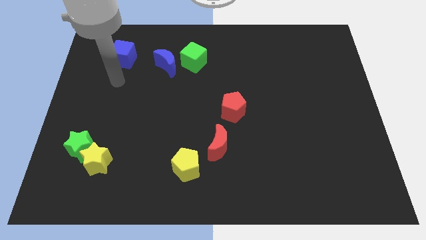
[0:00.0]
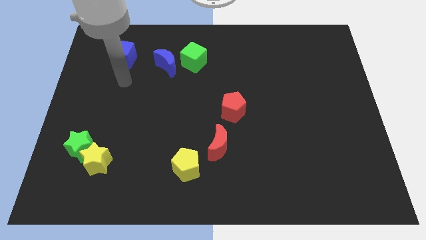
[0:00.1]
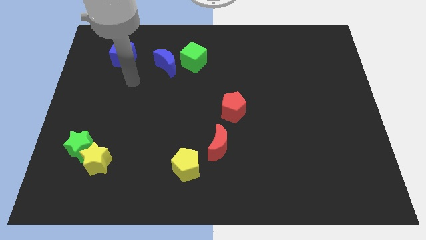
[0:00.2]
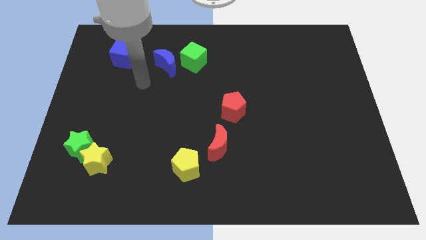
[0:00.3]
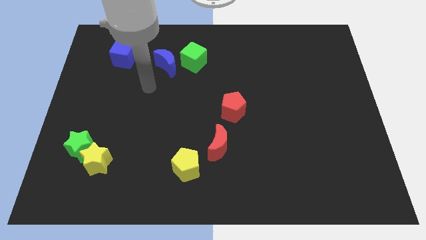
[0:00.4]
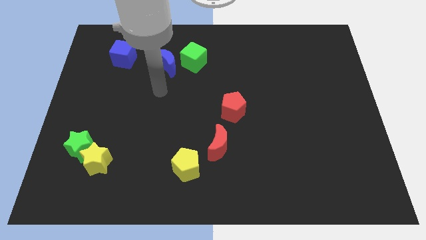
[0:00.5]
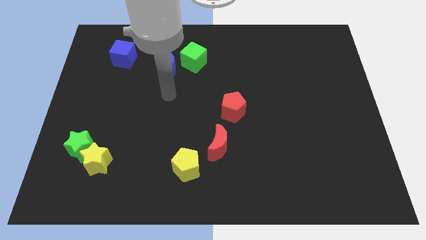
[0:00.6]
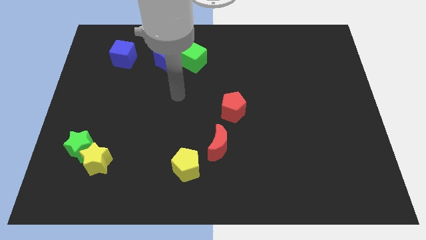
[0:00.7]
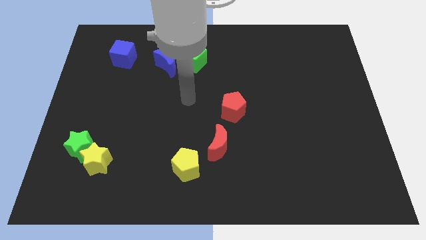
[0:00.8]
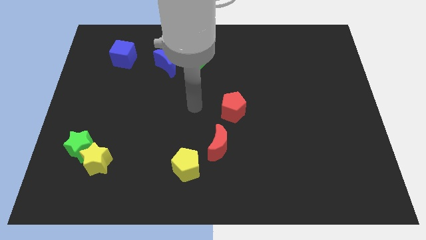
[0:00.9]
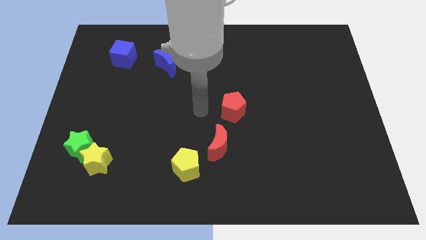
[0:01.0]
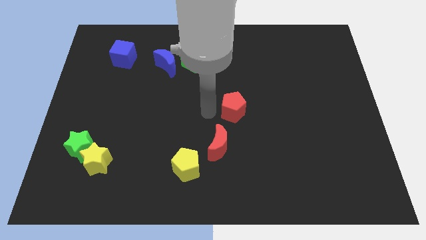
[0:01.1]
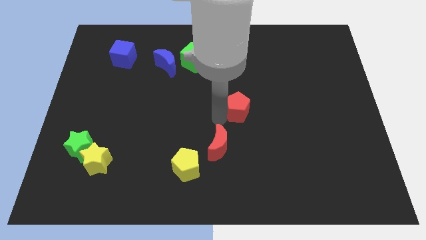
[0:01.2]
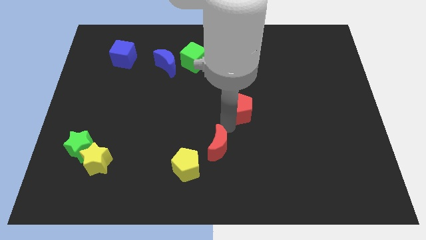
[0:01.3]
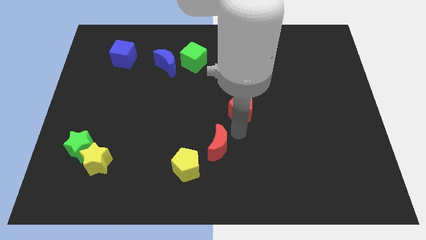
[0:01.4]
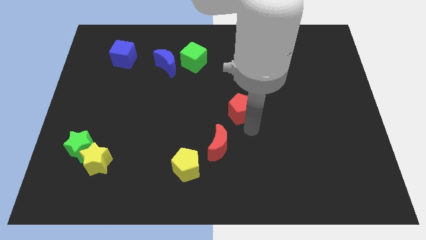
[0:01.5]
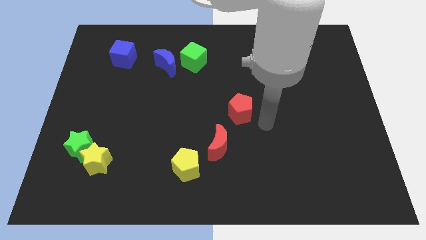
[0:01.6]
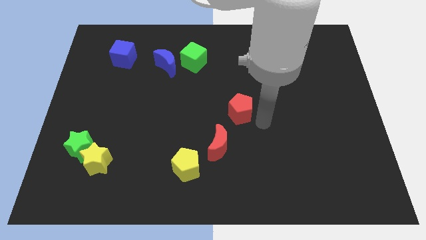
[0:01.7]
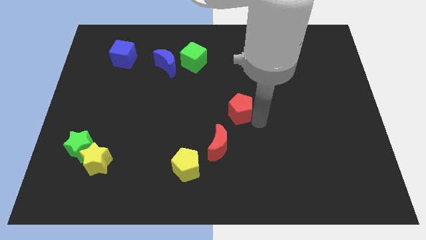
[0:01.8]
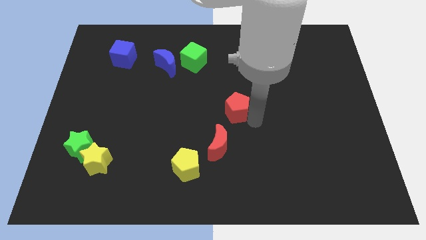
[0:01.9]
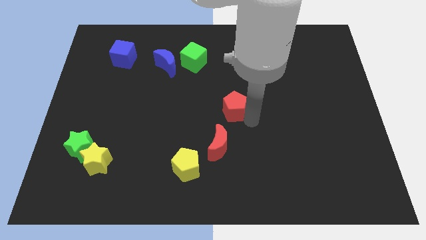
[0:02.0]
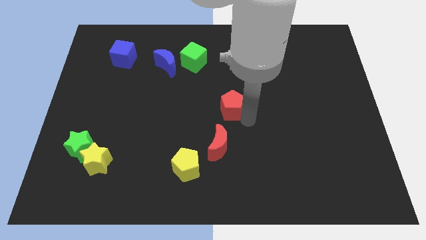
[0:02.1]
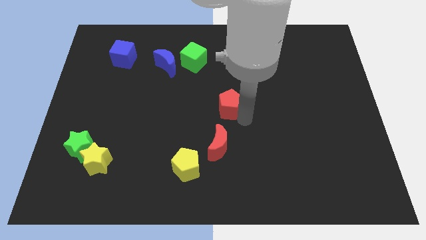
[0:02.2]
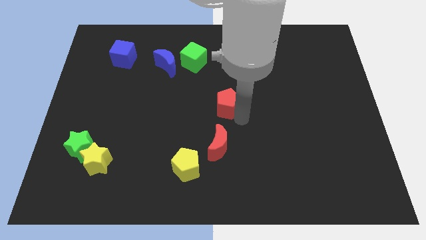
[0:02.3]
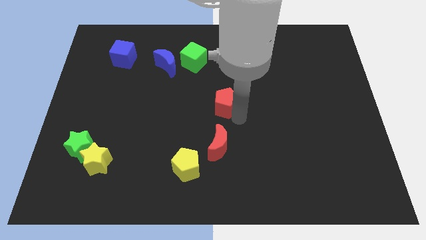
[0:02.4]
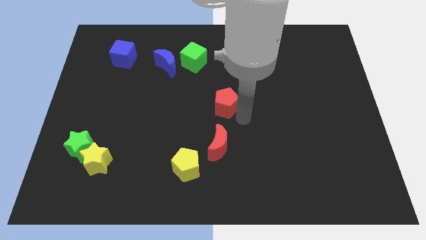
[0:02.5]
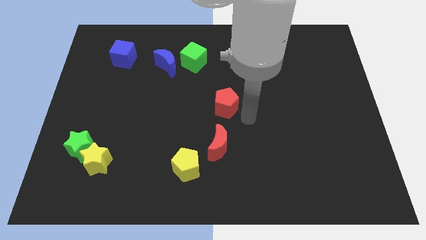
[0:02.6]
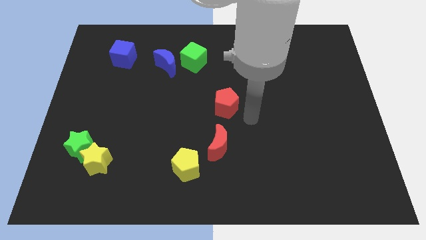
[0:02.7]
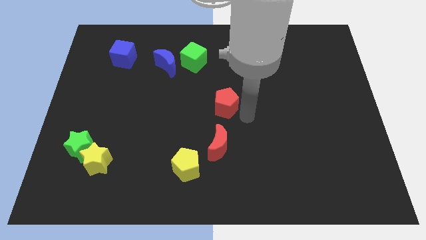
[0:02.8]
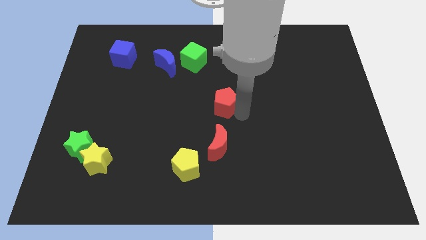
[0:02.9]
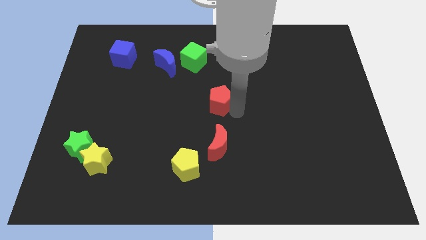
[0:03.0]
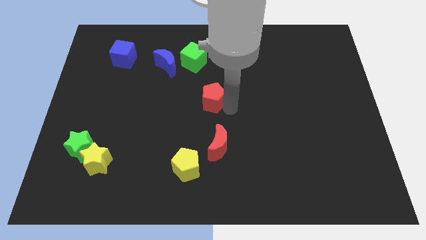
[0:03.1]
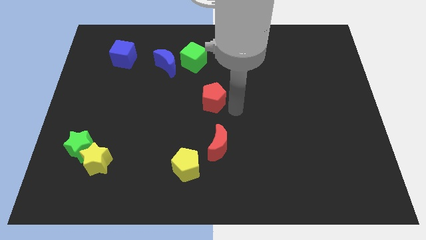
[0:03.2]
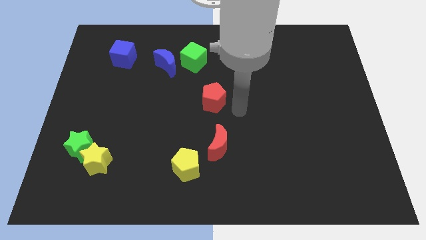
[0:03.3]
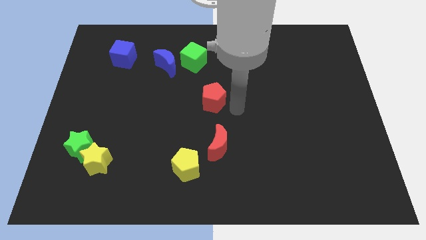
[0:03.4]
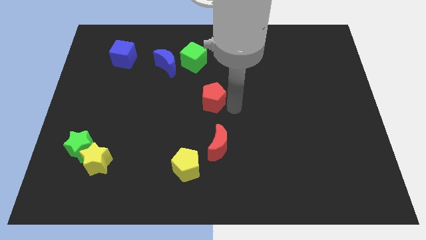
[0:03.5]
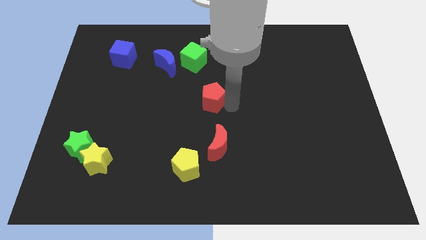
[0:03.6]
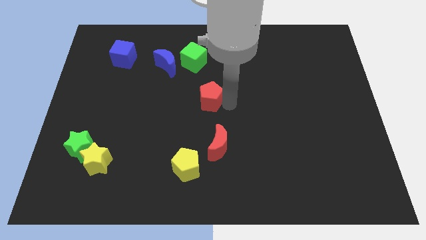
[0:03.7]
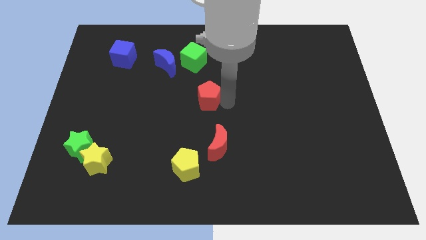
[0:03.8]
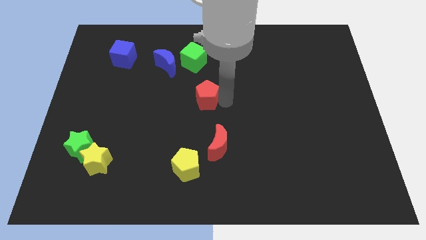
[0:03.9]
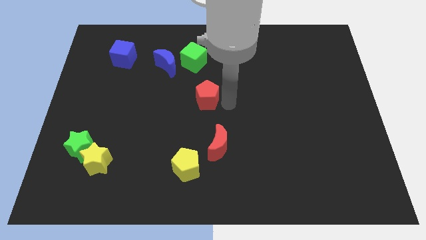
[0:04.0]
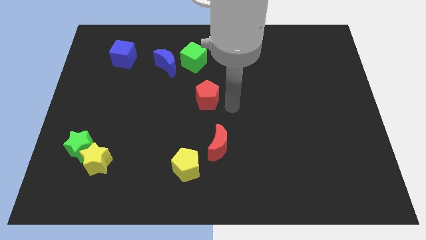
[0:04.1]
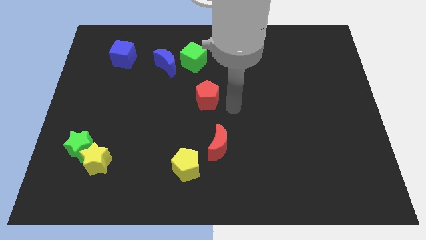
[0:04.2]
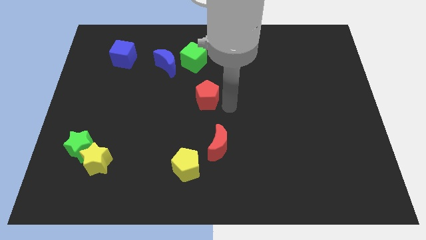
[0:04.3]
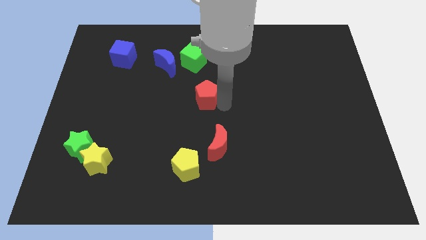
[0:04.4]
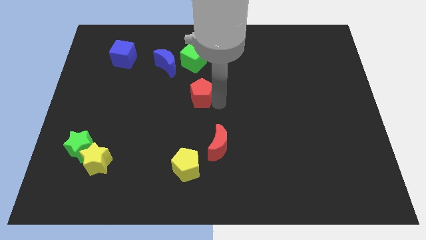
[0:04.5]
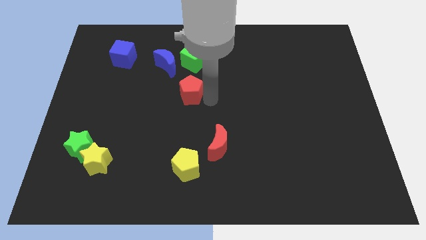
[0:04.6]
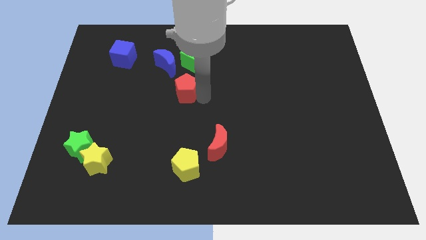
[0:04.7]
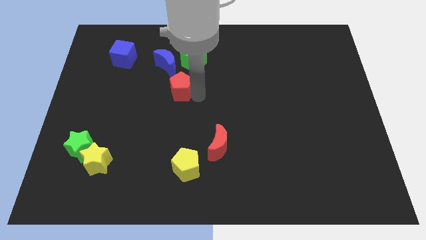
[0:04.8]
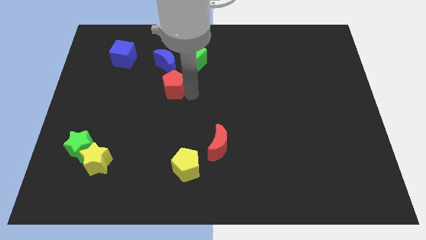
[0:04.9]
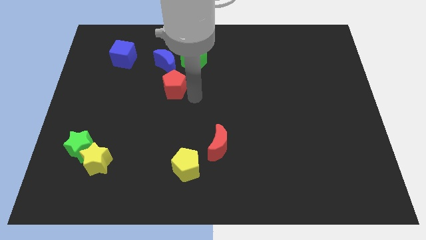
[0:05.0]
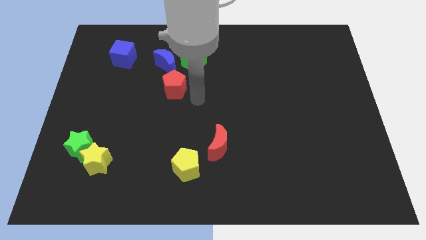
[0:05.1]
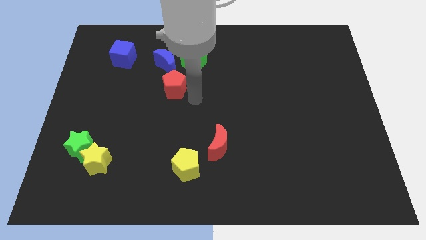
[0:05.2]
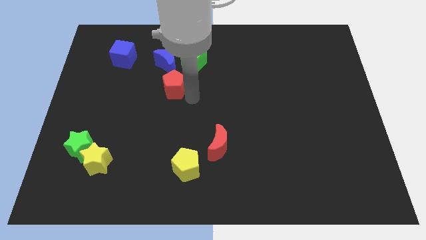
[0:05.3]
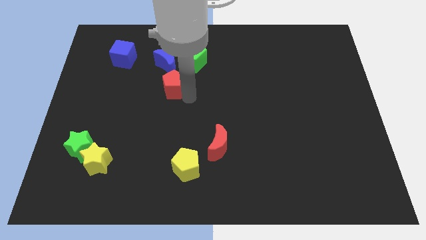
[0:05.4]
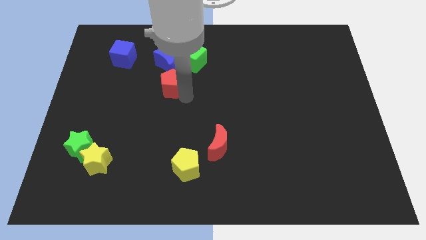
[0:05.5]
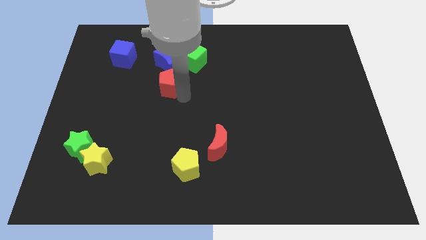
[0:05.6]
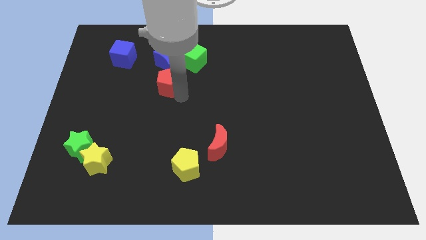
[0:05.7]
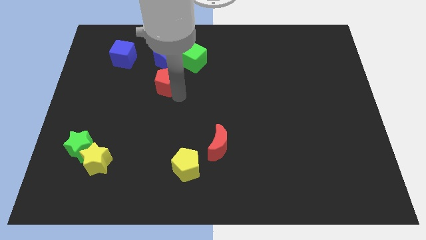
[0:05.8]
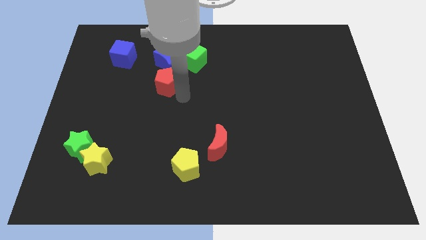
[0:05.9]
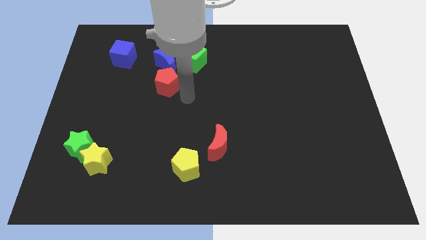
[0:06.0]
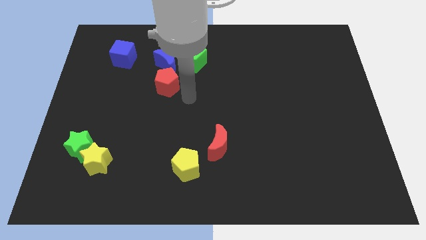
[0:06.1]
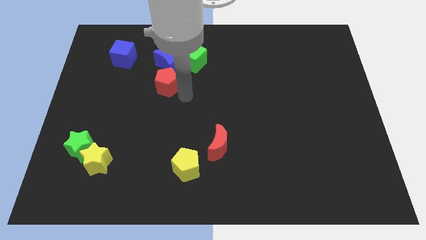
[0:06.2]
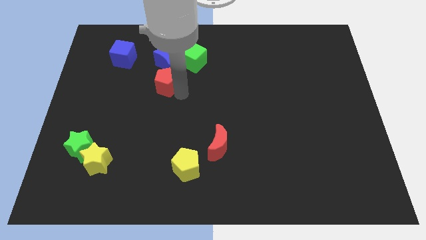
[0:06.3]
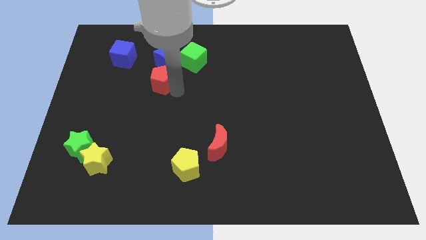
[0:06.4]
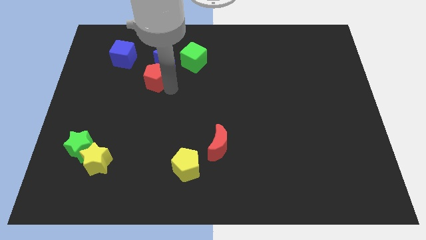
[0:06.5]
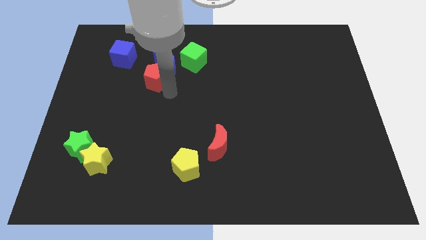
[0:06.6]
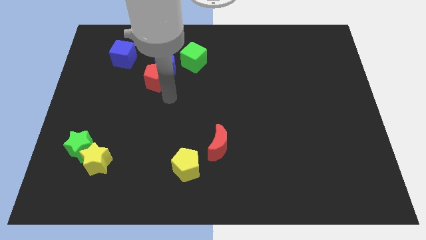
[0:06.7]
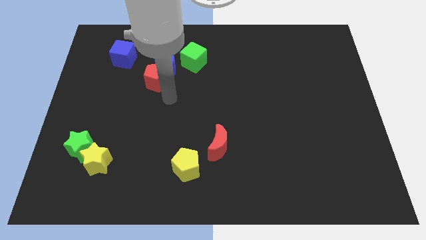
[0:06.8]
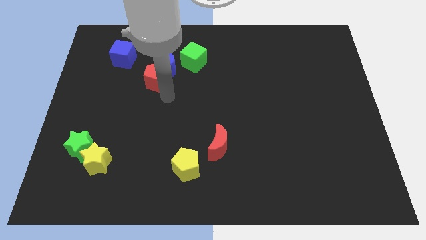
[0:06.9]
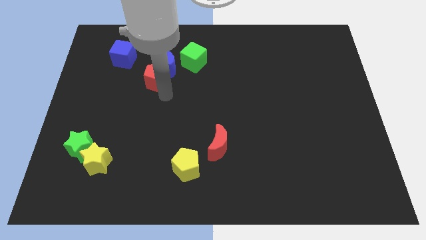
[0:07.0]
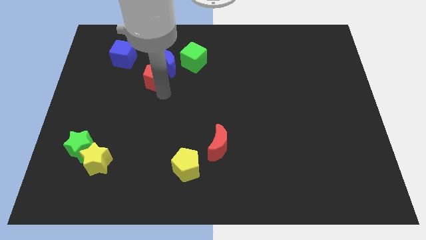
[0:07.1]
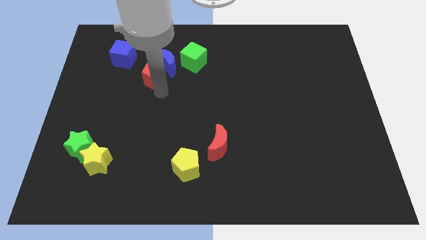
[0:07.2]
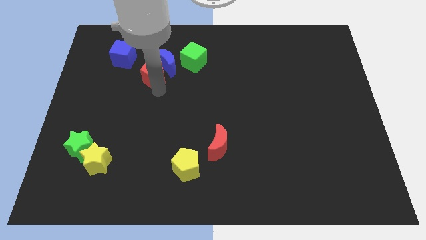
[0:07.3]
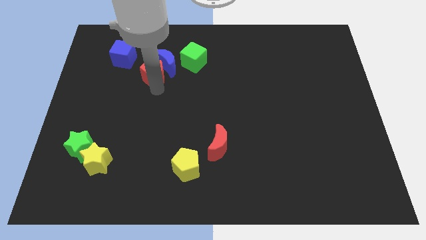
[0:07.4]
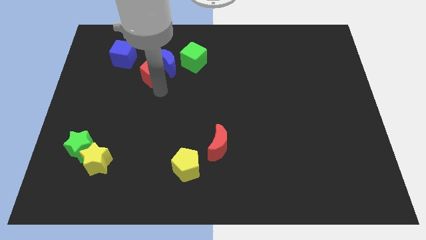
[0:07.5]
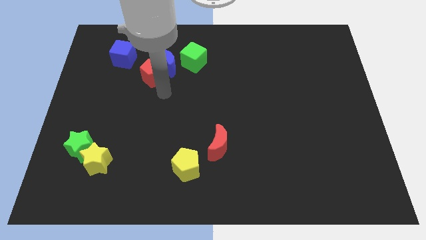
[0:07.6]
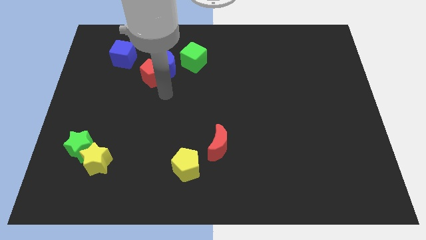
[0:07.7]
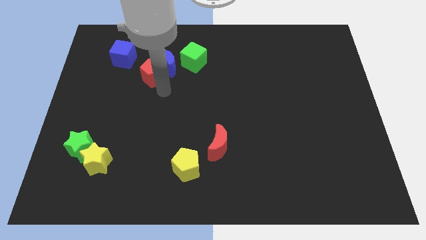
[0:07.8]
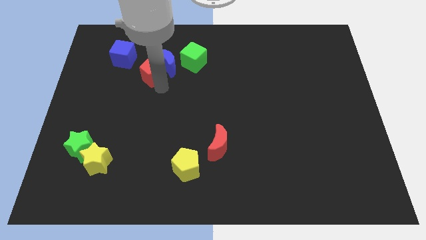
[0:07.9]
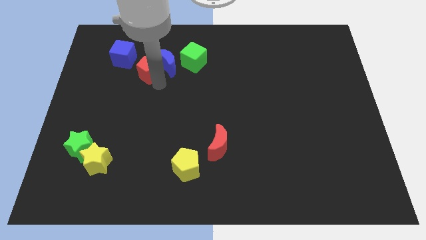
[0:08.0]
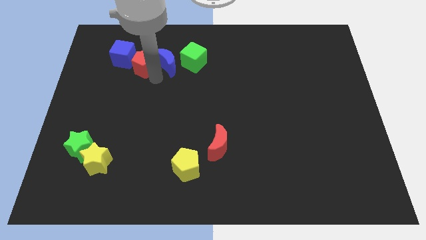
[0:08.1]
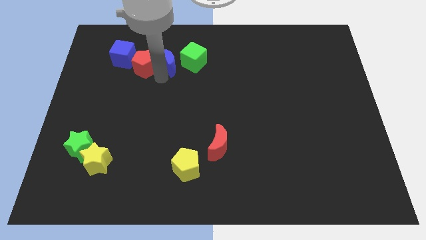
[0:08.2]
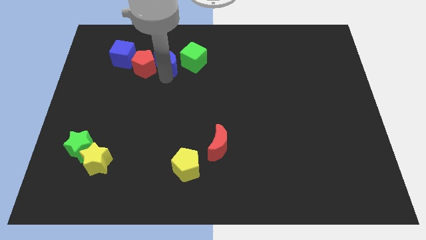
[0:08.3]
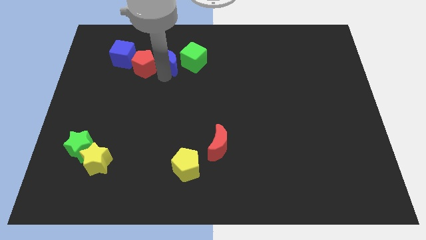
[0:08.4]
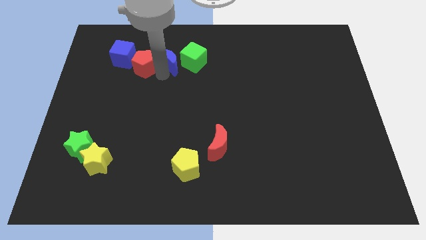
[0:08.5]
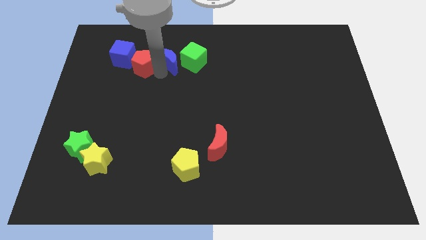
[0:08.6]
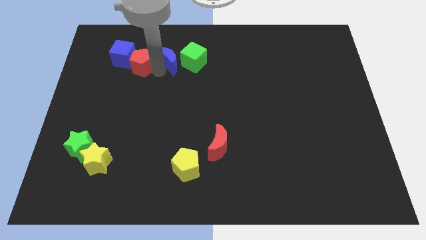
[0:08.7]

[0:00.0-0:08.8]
put the red pentagon to the blue cube

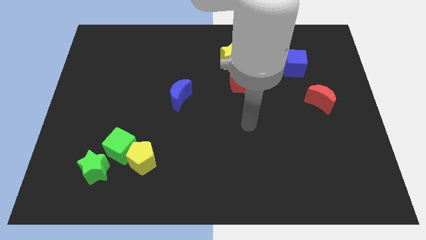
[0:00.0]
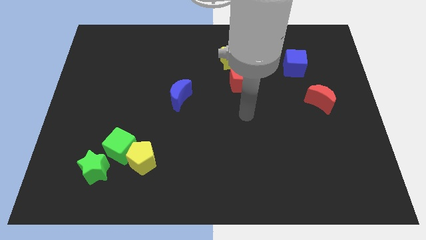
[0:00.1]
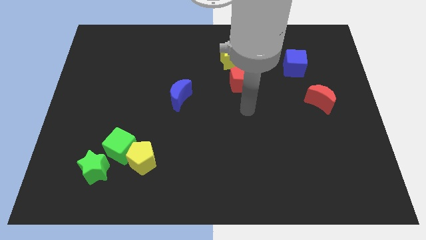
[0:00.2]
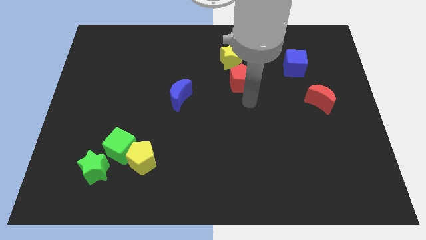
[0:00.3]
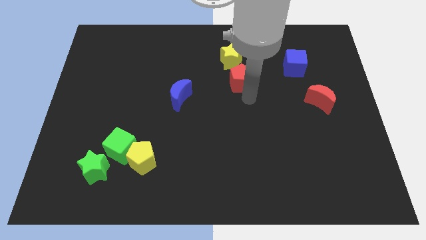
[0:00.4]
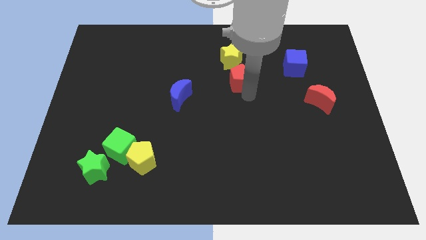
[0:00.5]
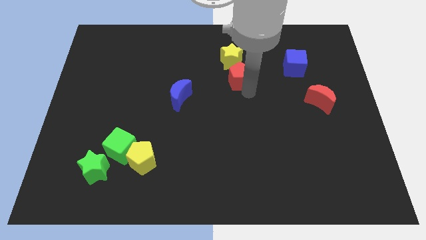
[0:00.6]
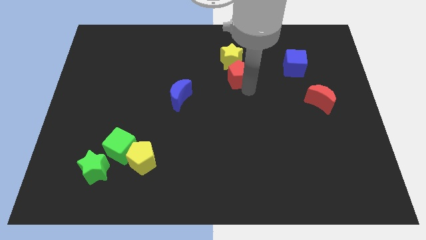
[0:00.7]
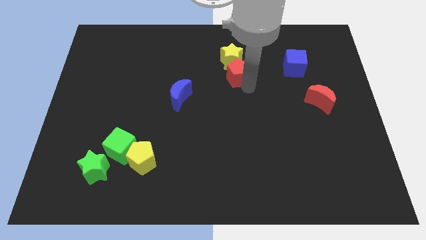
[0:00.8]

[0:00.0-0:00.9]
put the red pentagon next to the yellow star
